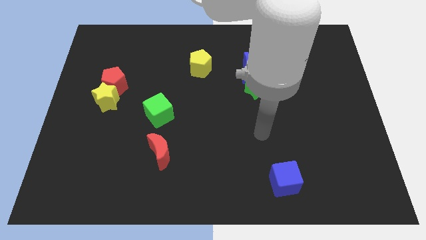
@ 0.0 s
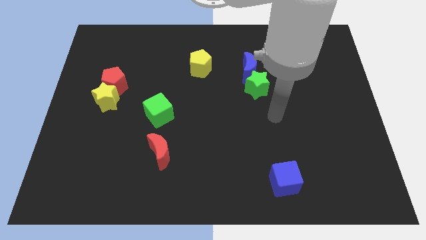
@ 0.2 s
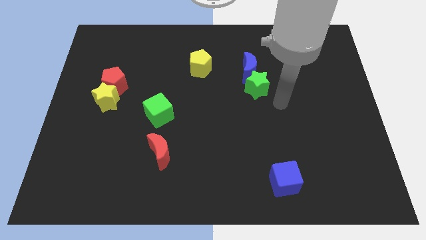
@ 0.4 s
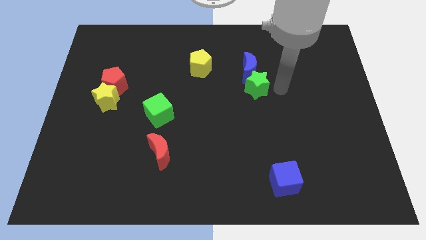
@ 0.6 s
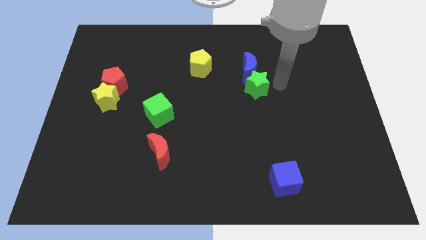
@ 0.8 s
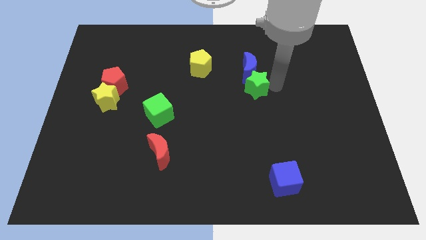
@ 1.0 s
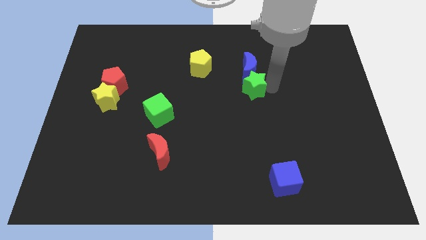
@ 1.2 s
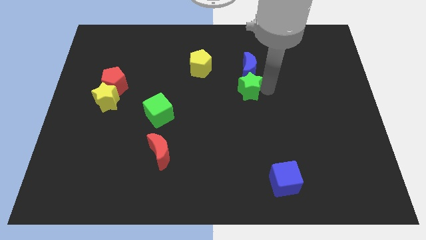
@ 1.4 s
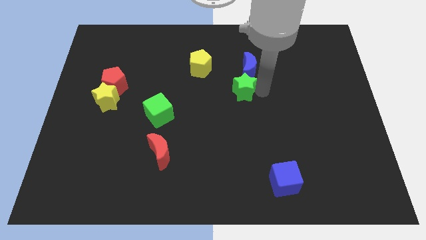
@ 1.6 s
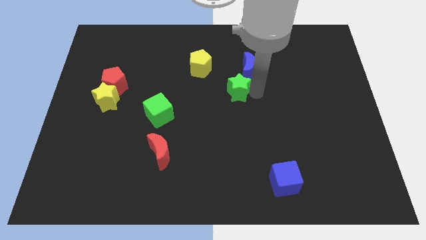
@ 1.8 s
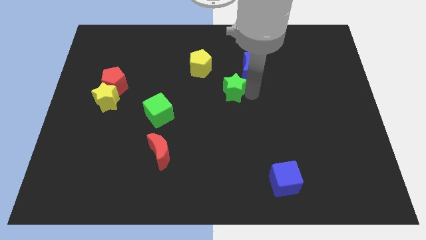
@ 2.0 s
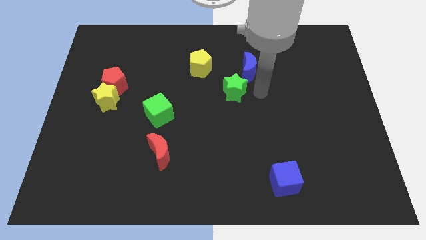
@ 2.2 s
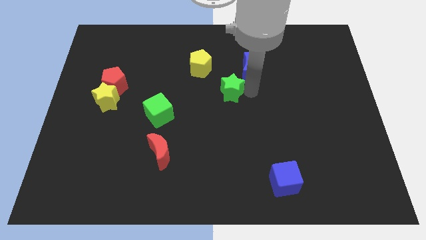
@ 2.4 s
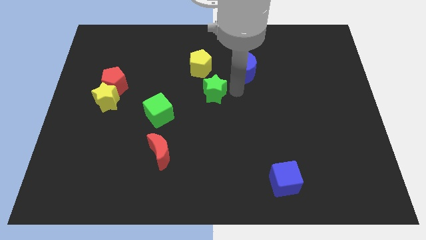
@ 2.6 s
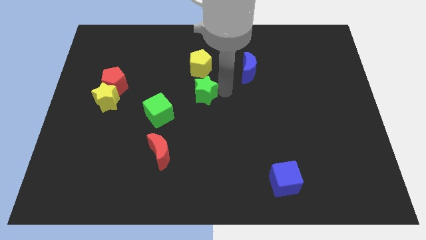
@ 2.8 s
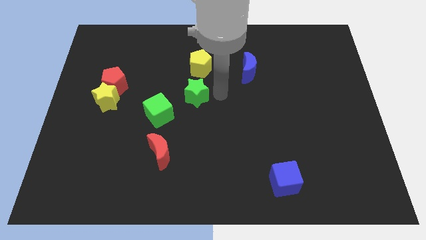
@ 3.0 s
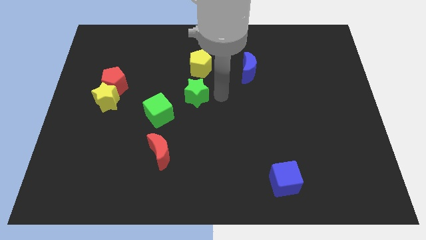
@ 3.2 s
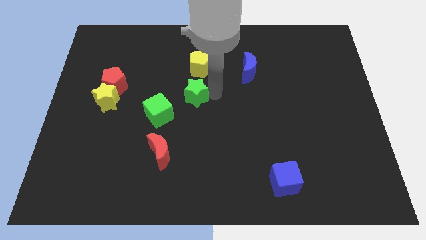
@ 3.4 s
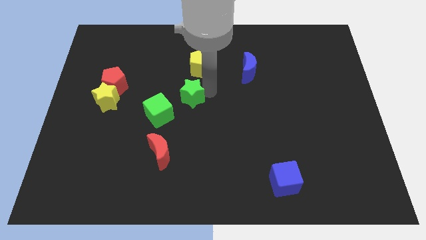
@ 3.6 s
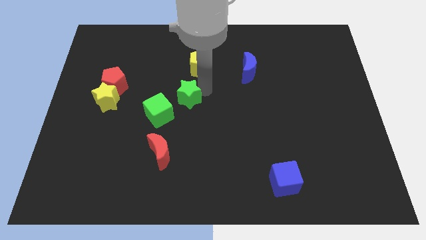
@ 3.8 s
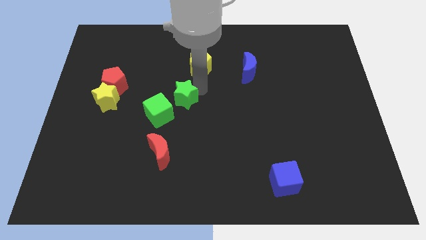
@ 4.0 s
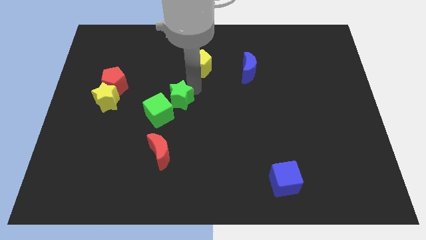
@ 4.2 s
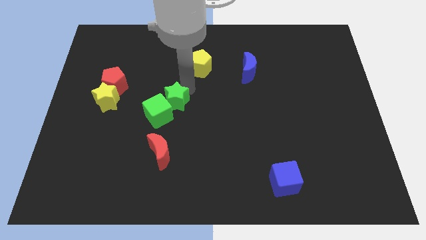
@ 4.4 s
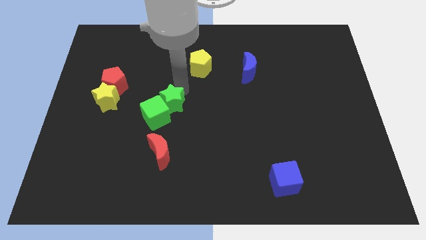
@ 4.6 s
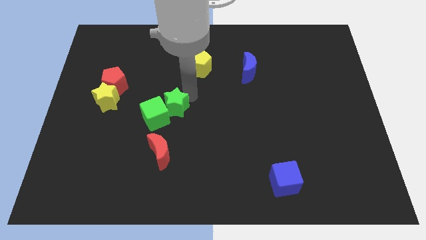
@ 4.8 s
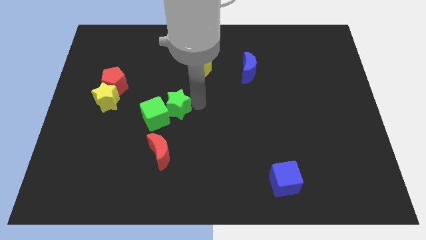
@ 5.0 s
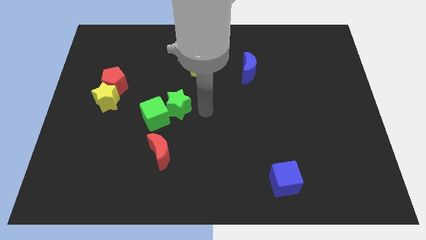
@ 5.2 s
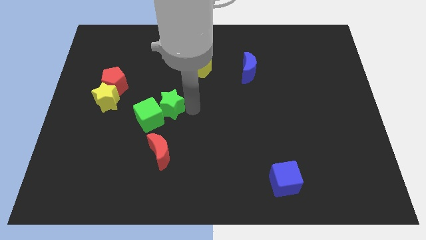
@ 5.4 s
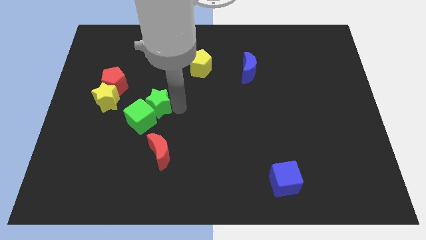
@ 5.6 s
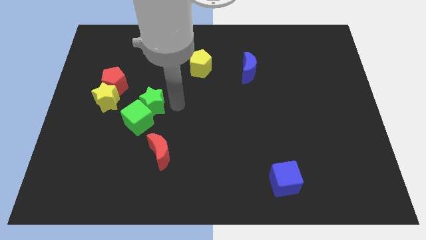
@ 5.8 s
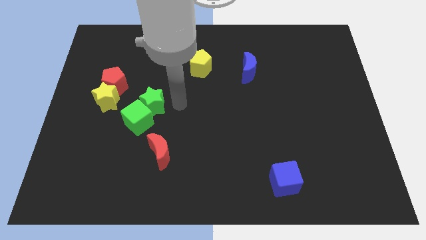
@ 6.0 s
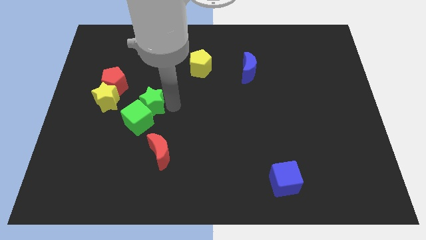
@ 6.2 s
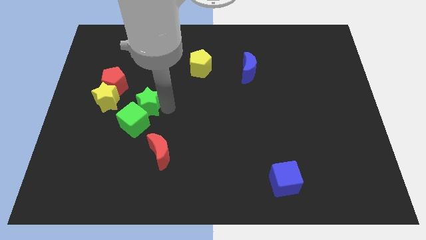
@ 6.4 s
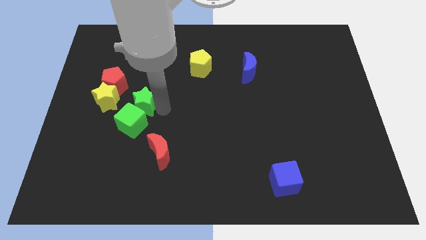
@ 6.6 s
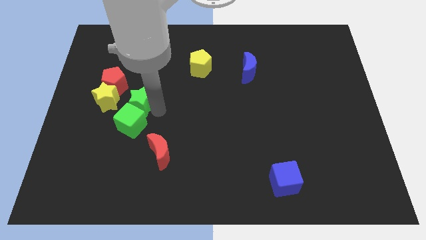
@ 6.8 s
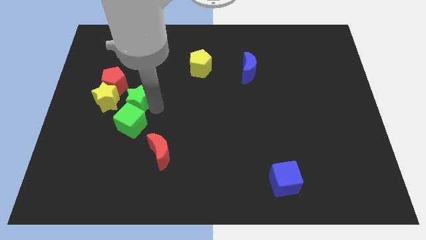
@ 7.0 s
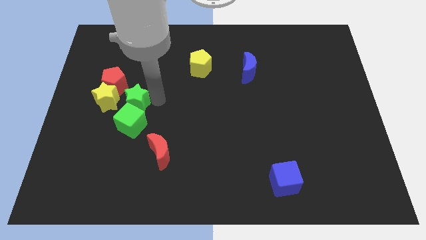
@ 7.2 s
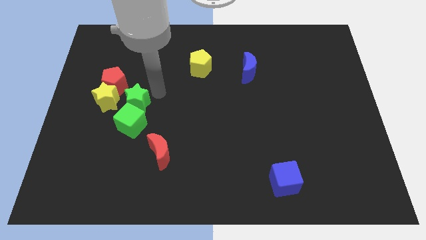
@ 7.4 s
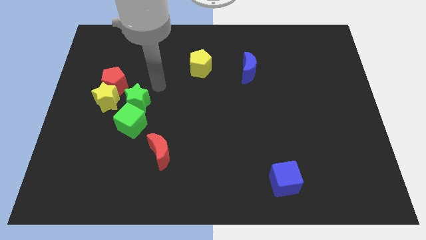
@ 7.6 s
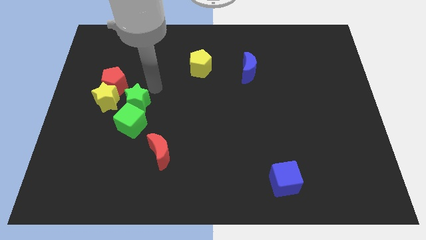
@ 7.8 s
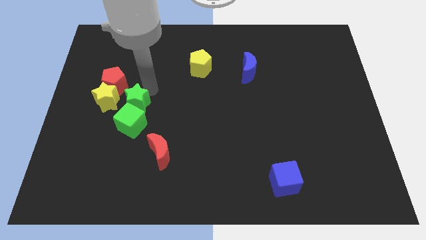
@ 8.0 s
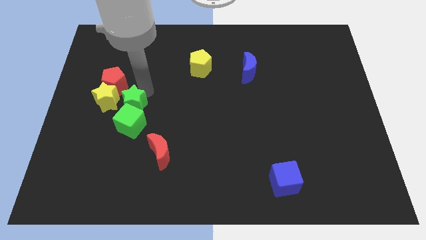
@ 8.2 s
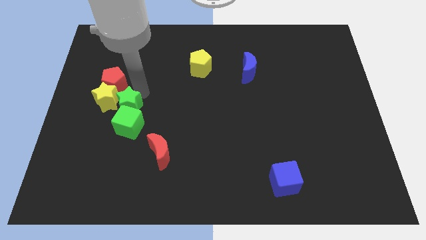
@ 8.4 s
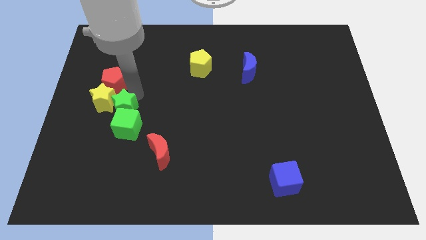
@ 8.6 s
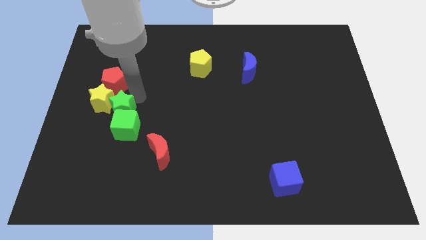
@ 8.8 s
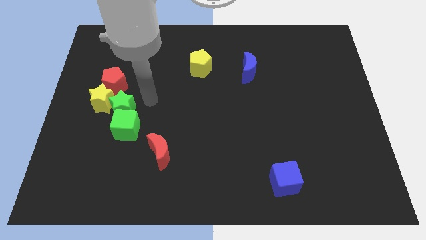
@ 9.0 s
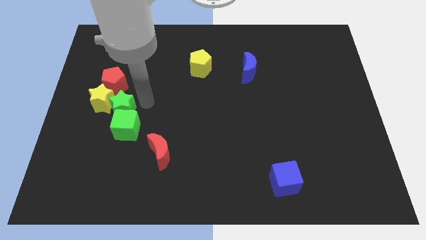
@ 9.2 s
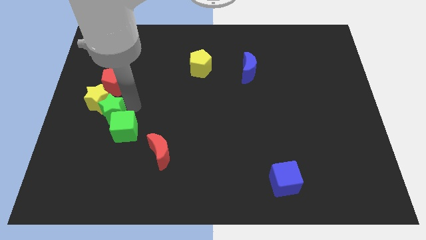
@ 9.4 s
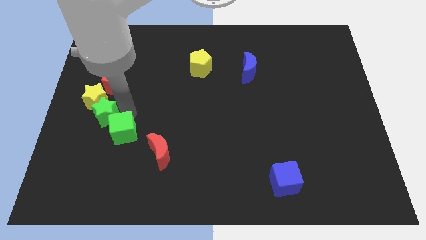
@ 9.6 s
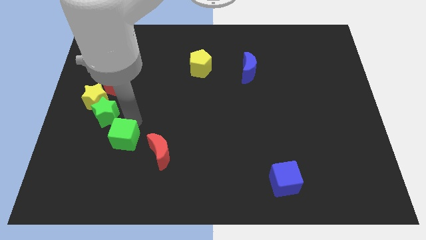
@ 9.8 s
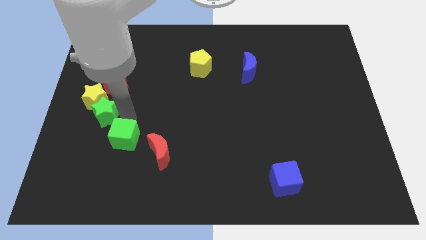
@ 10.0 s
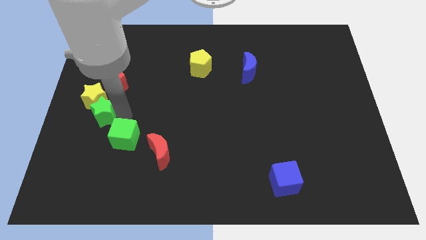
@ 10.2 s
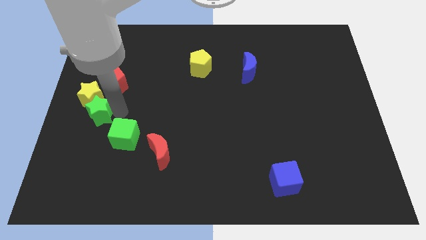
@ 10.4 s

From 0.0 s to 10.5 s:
put the green star to the left side

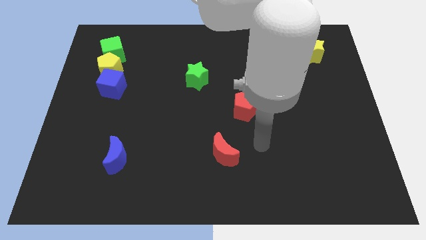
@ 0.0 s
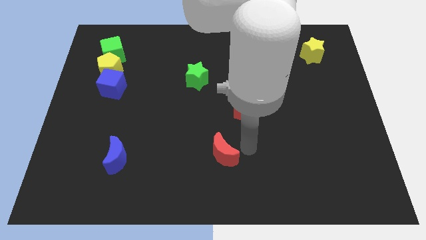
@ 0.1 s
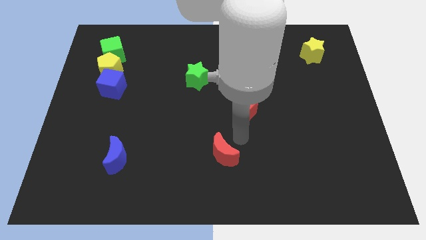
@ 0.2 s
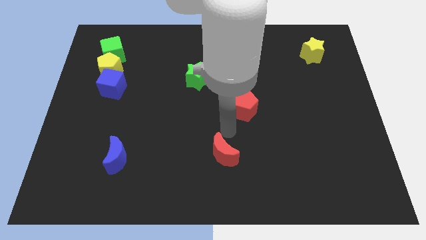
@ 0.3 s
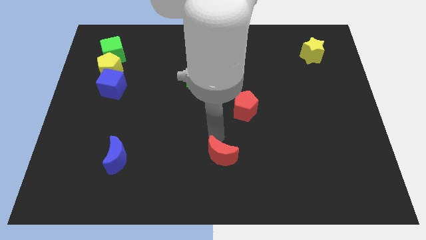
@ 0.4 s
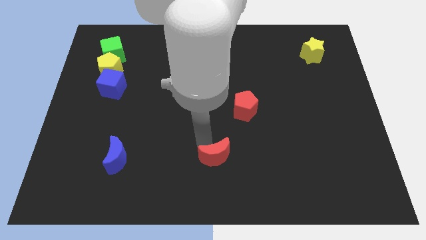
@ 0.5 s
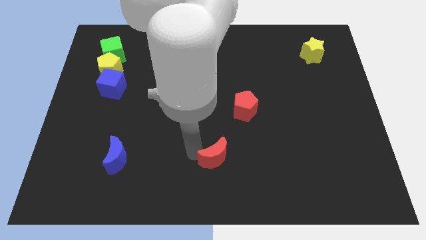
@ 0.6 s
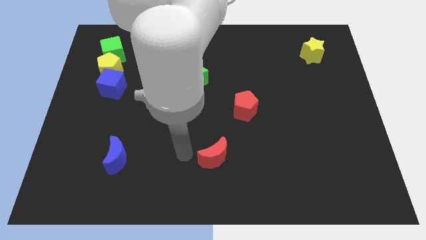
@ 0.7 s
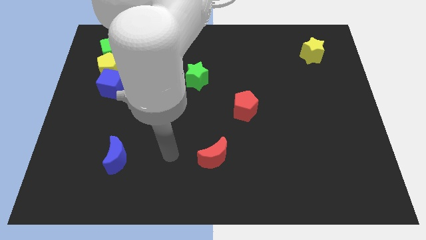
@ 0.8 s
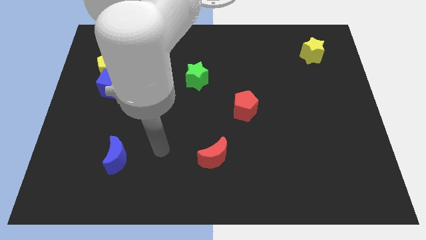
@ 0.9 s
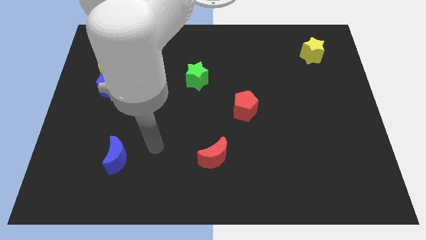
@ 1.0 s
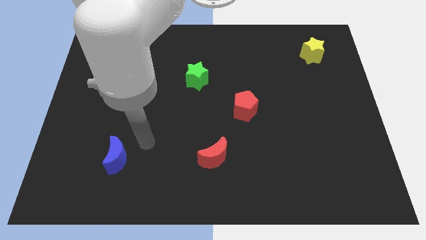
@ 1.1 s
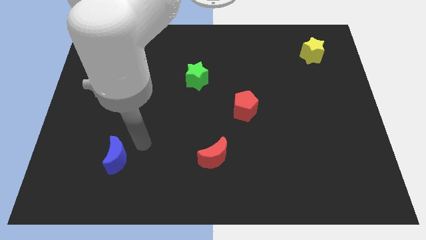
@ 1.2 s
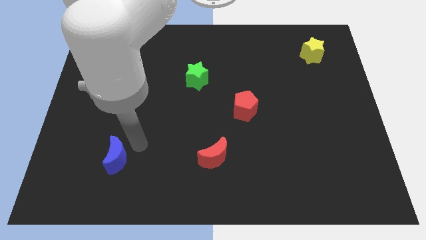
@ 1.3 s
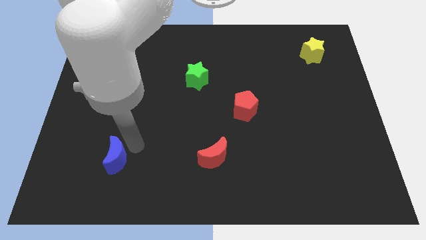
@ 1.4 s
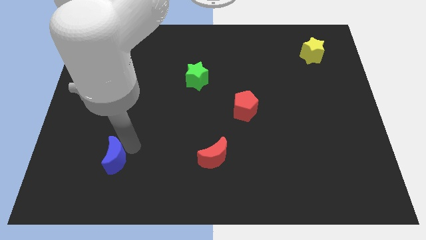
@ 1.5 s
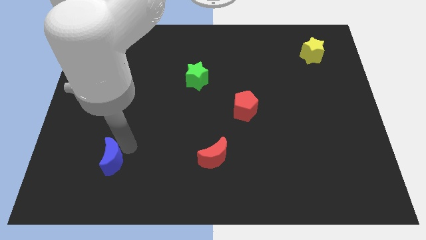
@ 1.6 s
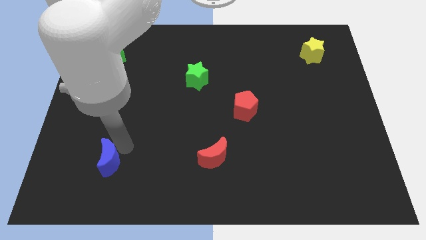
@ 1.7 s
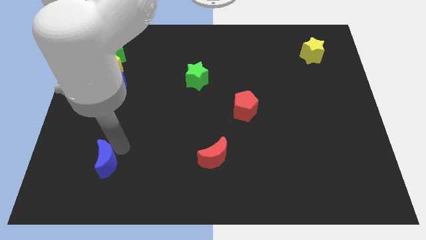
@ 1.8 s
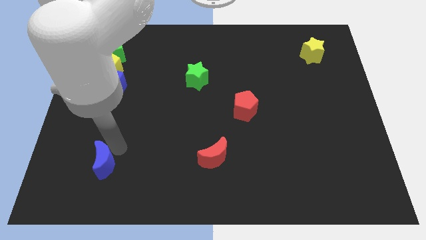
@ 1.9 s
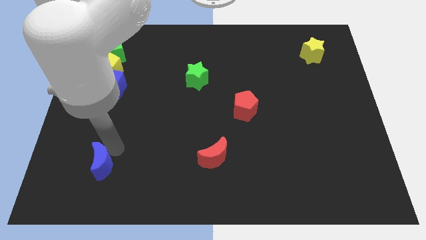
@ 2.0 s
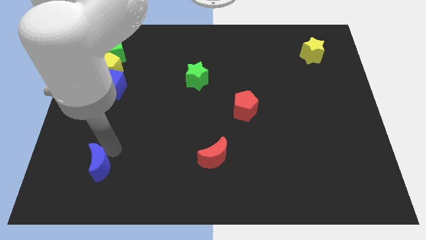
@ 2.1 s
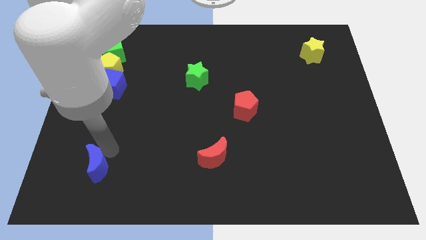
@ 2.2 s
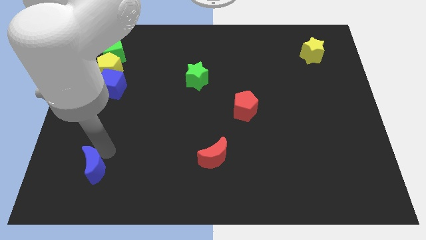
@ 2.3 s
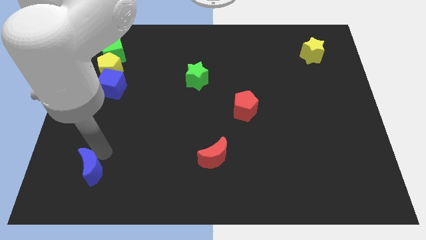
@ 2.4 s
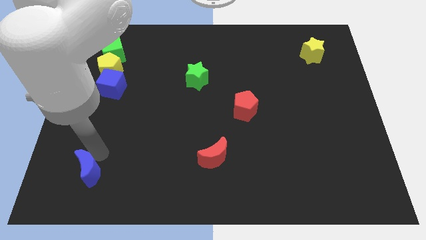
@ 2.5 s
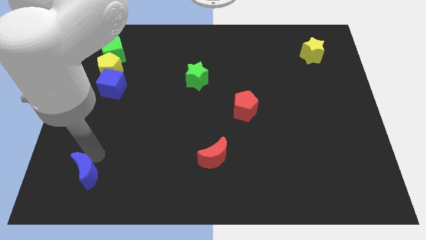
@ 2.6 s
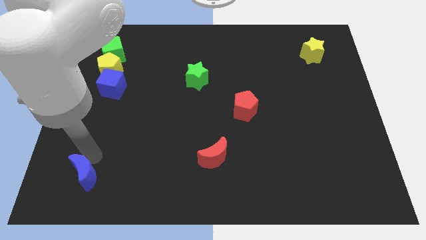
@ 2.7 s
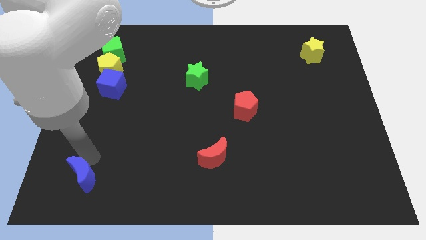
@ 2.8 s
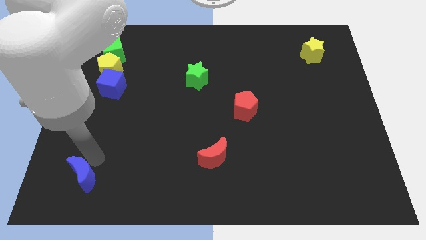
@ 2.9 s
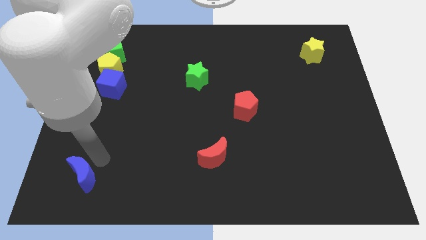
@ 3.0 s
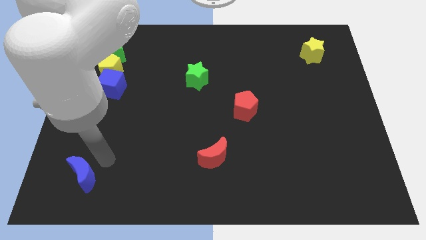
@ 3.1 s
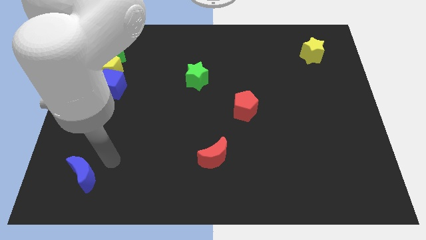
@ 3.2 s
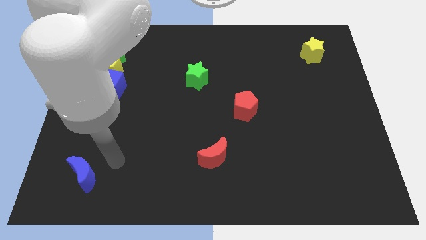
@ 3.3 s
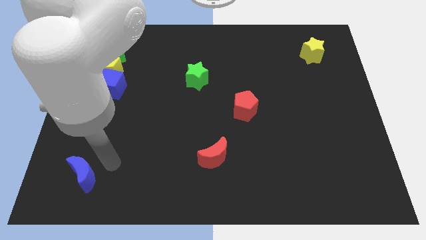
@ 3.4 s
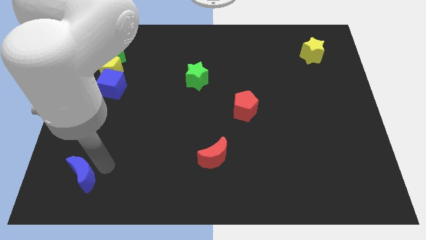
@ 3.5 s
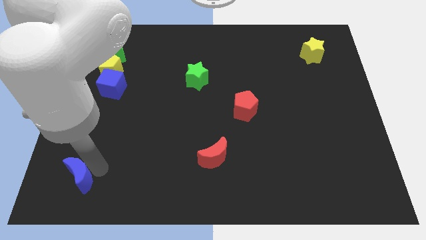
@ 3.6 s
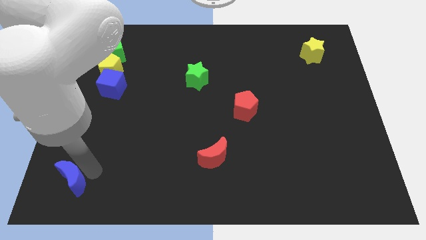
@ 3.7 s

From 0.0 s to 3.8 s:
slide the blue moon to the bottom left of the board
